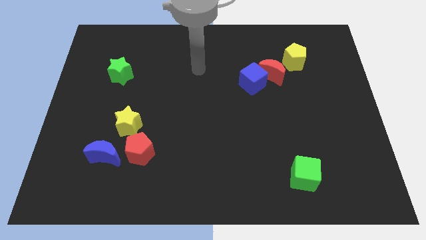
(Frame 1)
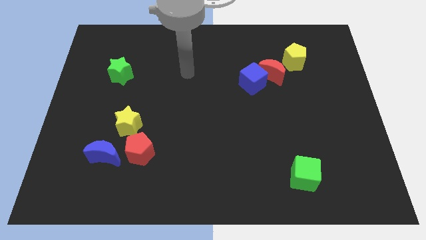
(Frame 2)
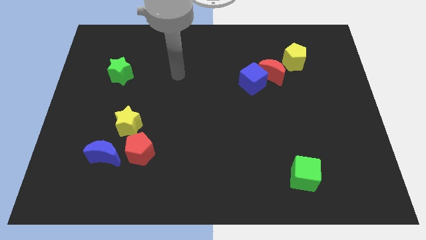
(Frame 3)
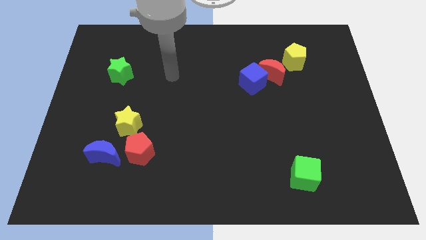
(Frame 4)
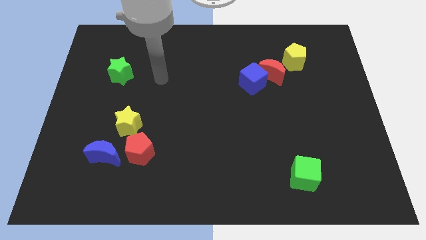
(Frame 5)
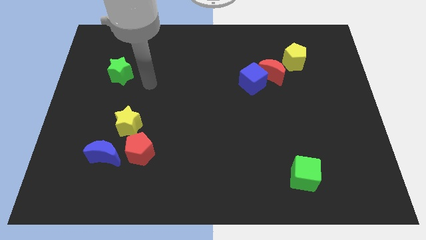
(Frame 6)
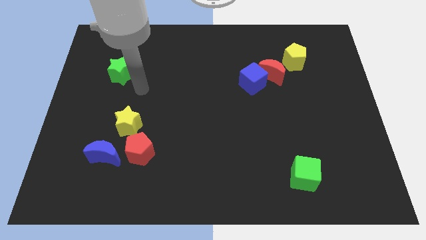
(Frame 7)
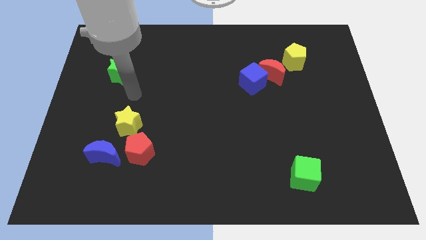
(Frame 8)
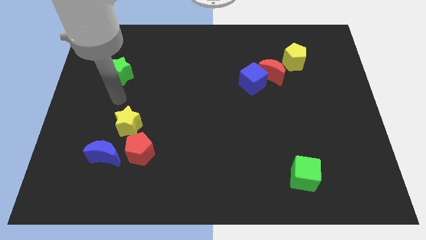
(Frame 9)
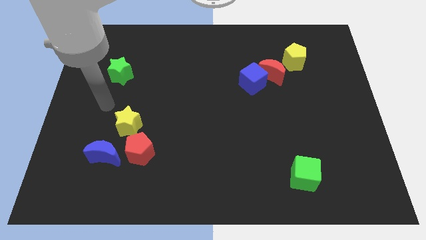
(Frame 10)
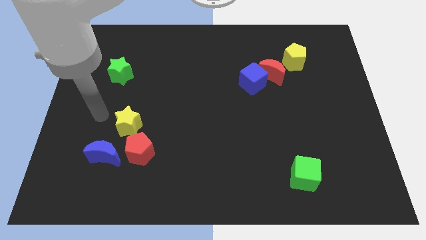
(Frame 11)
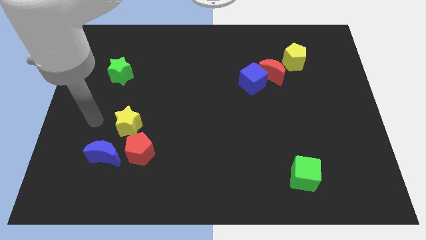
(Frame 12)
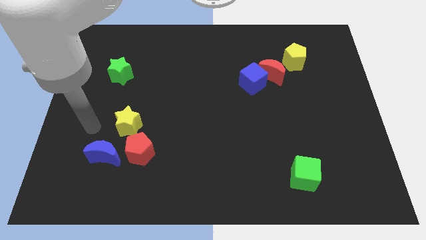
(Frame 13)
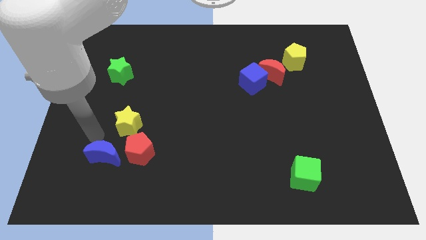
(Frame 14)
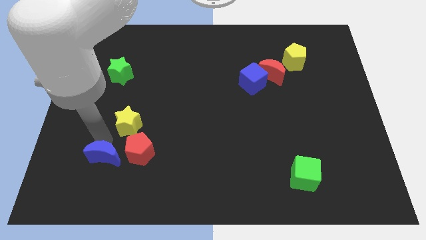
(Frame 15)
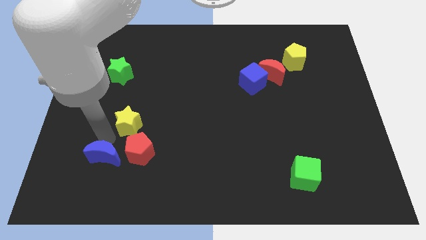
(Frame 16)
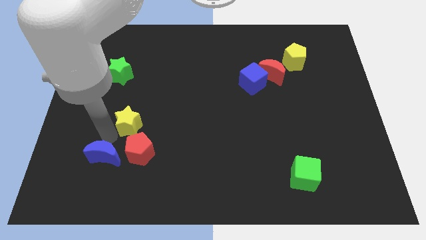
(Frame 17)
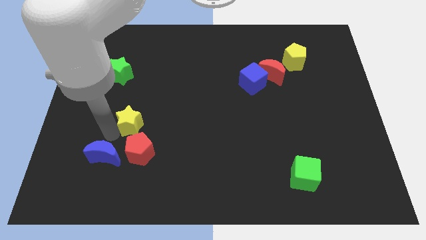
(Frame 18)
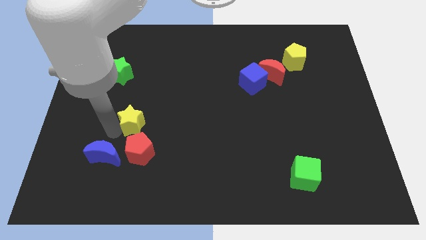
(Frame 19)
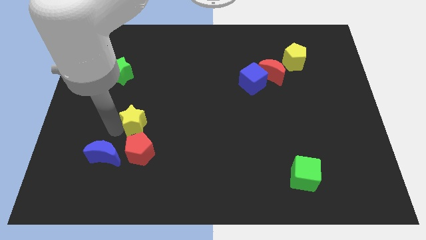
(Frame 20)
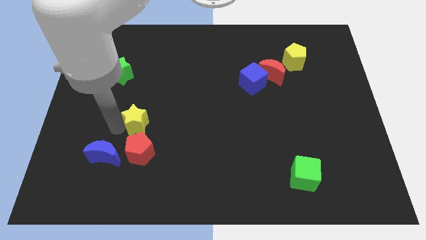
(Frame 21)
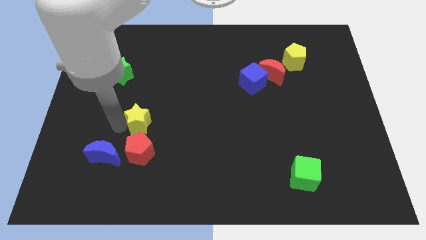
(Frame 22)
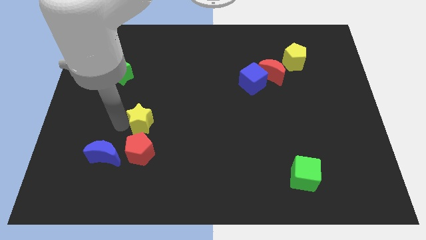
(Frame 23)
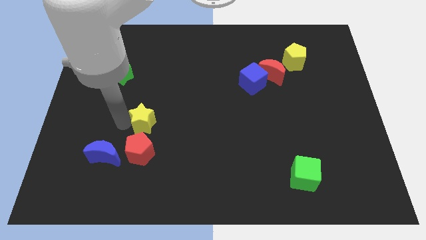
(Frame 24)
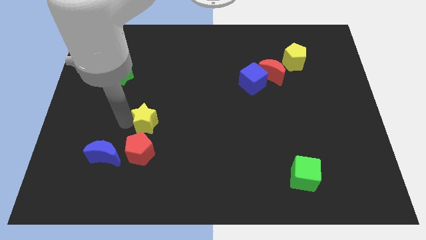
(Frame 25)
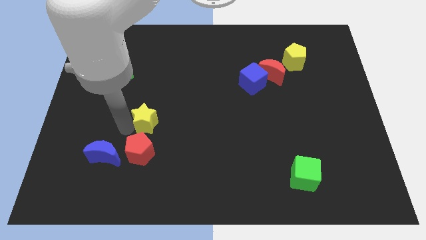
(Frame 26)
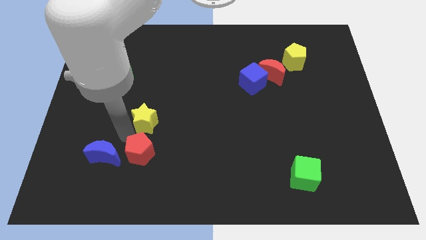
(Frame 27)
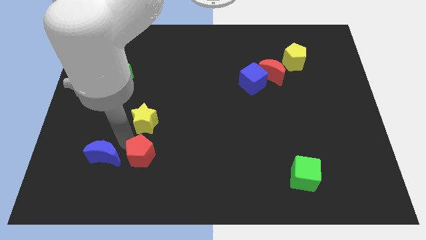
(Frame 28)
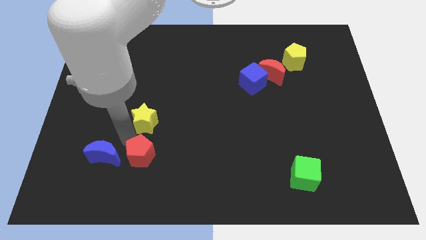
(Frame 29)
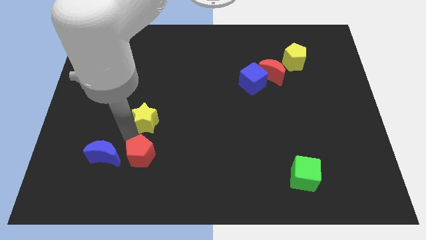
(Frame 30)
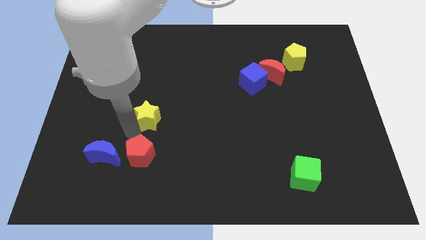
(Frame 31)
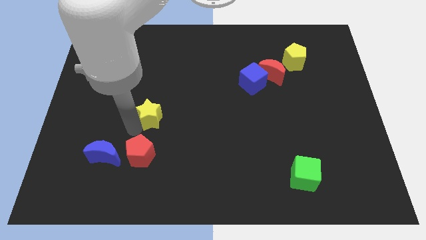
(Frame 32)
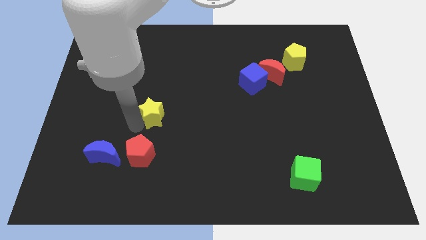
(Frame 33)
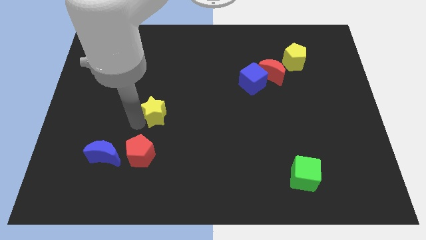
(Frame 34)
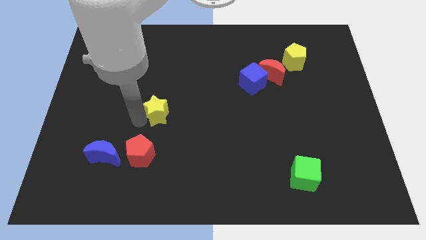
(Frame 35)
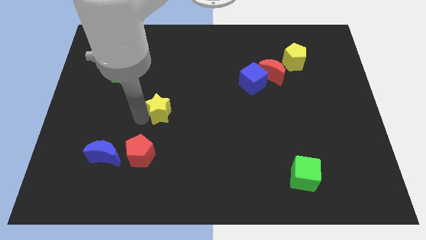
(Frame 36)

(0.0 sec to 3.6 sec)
push the yellow star a little upwards and right diagonally

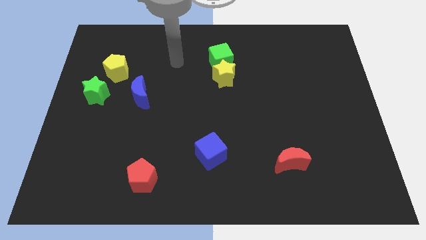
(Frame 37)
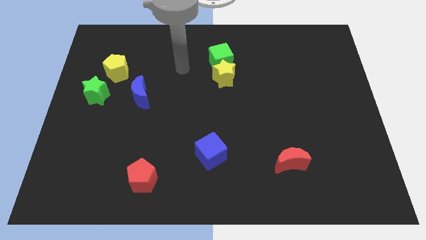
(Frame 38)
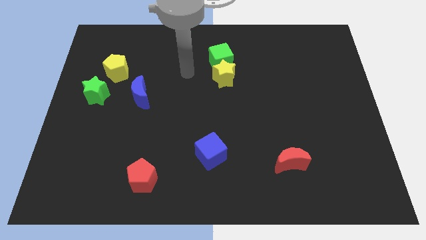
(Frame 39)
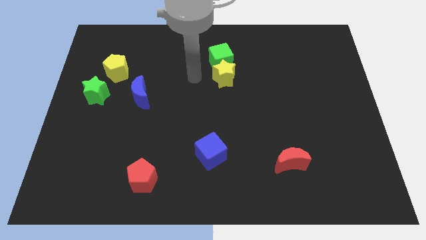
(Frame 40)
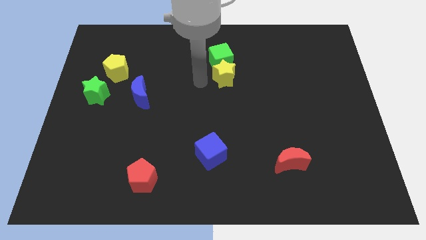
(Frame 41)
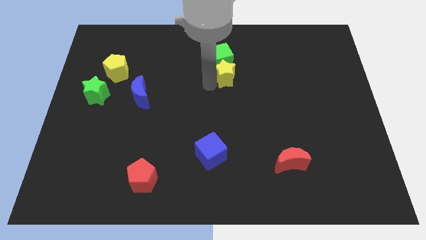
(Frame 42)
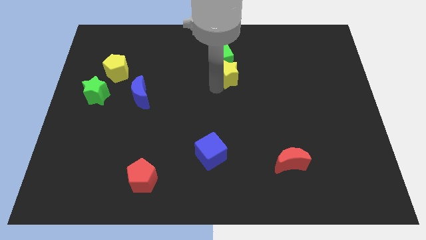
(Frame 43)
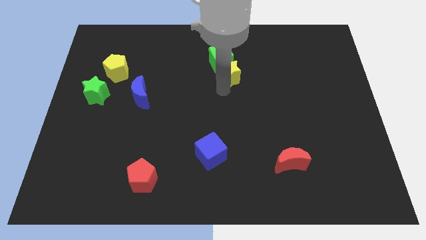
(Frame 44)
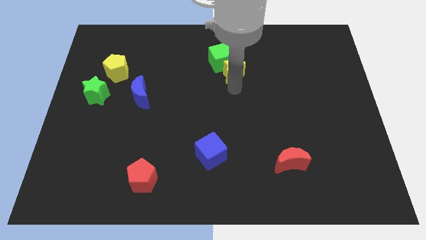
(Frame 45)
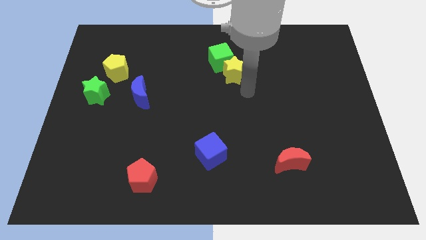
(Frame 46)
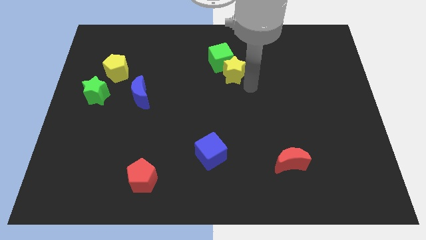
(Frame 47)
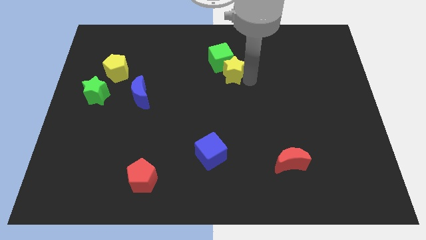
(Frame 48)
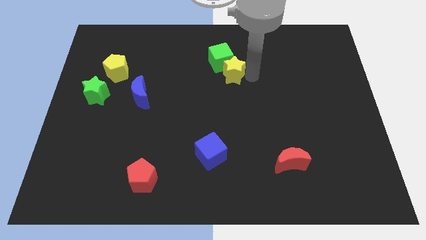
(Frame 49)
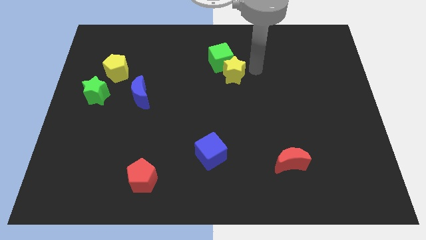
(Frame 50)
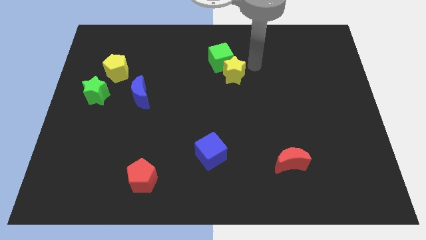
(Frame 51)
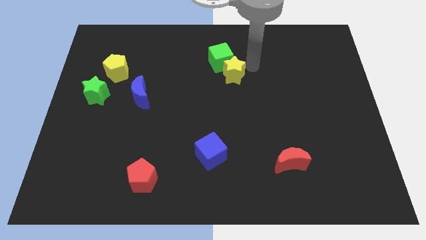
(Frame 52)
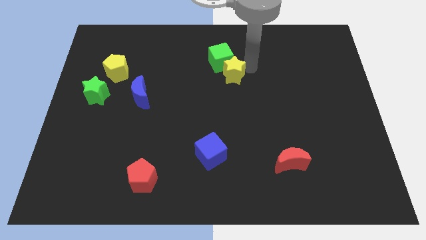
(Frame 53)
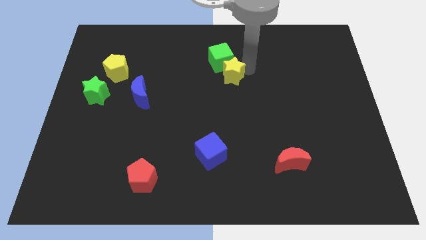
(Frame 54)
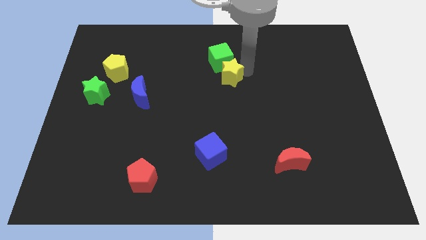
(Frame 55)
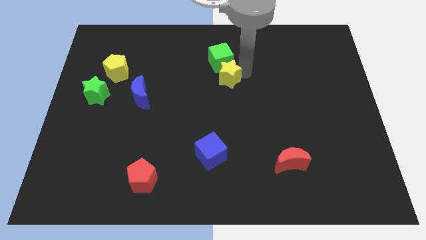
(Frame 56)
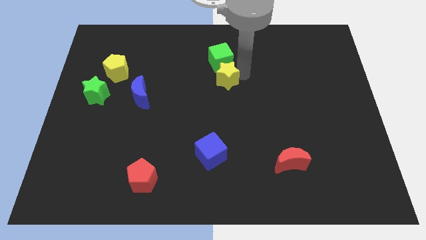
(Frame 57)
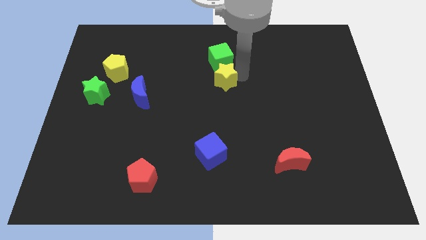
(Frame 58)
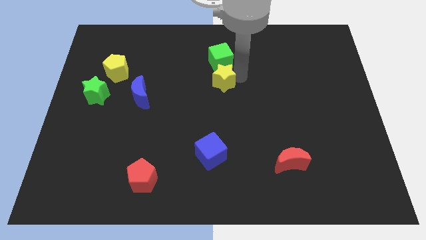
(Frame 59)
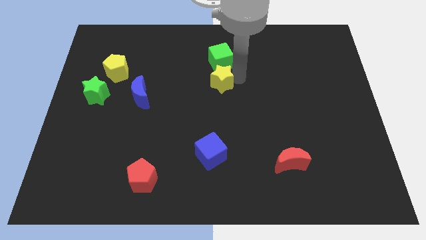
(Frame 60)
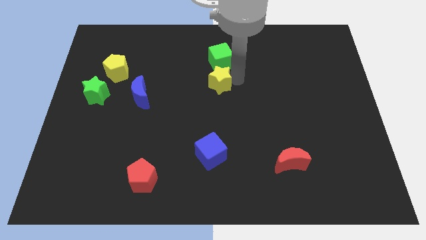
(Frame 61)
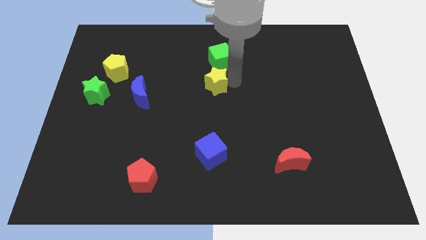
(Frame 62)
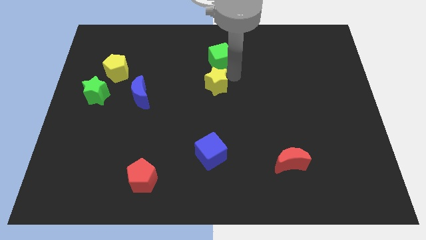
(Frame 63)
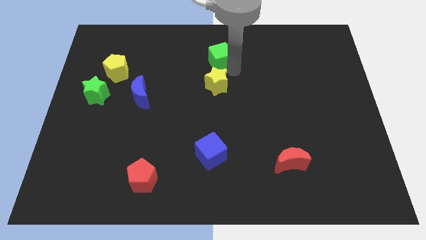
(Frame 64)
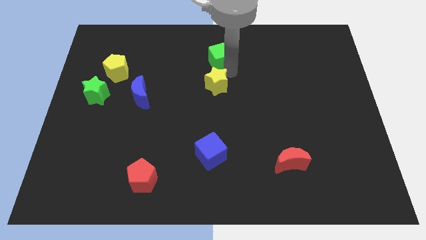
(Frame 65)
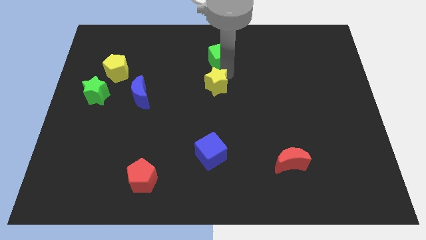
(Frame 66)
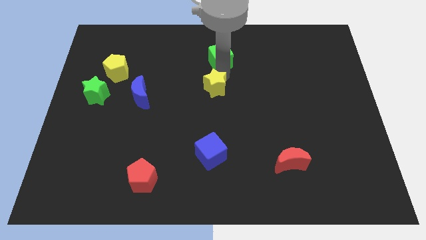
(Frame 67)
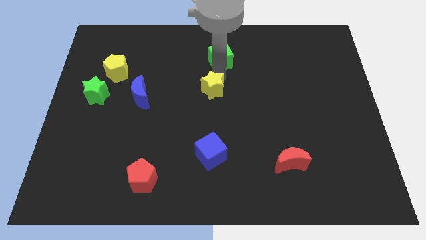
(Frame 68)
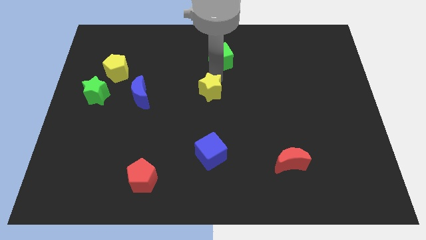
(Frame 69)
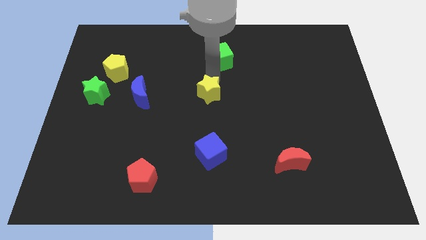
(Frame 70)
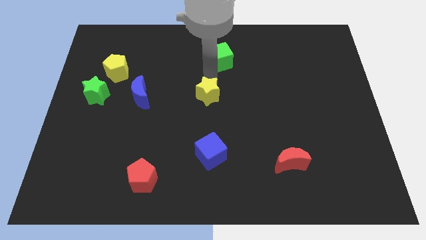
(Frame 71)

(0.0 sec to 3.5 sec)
push the yellow star somewhat downwards and to the left diagonally

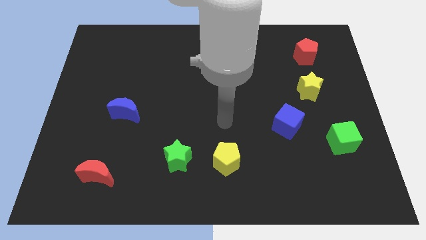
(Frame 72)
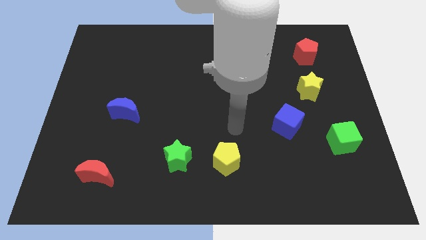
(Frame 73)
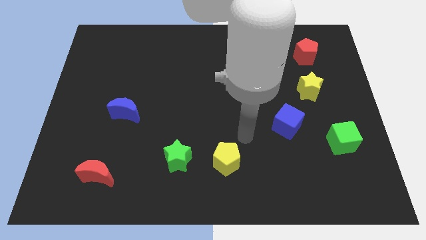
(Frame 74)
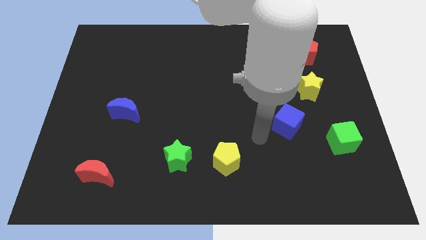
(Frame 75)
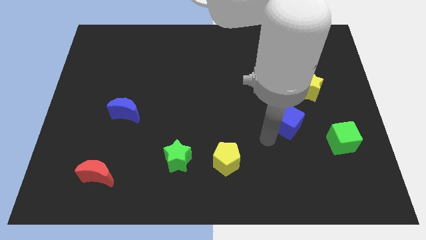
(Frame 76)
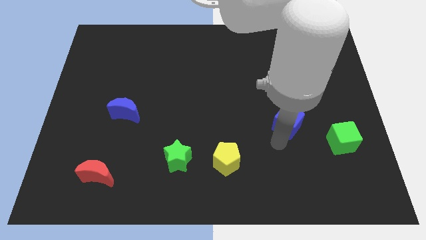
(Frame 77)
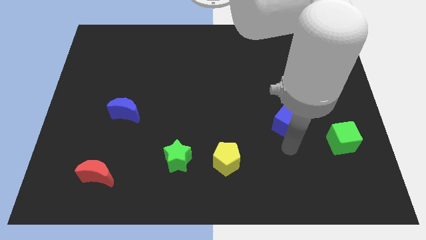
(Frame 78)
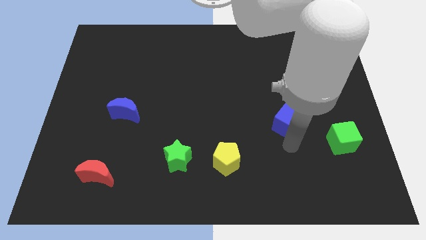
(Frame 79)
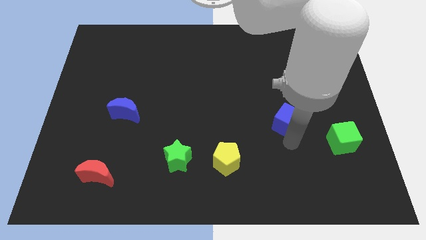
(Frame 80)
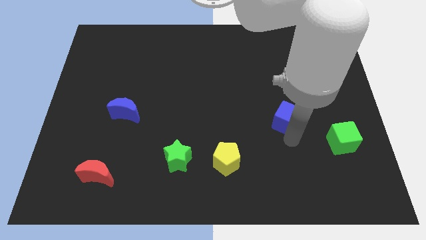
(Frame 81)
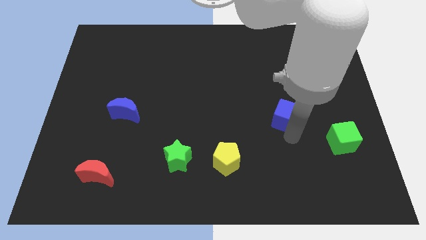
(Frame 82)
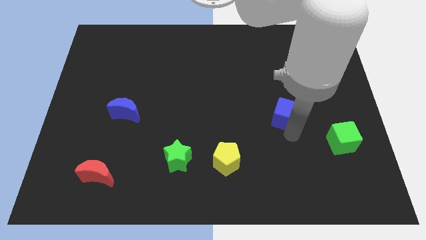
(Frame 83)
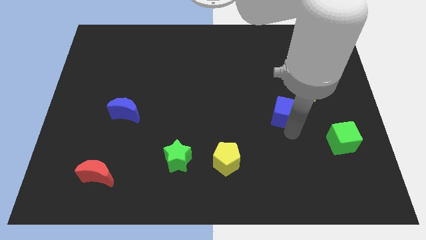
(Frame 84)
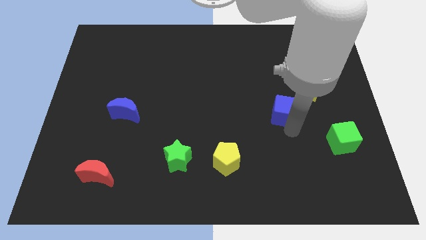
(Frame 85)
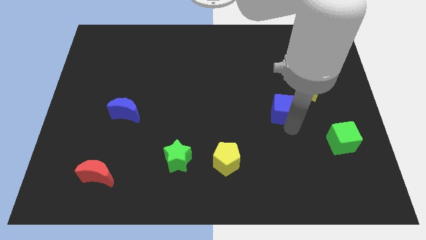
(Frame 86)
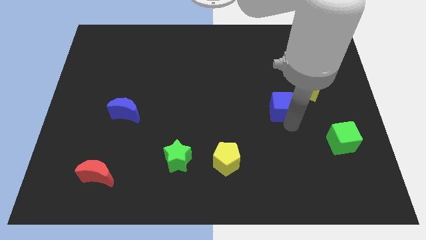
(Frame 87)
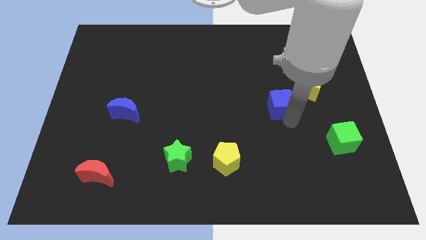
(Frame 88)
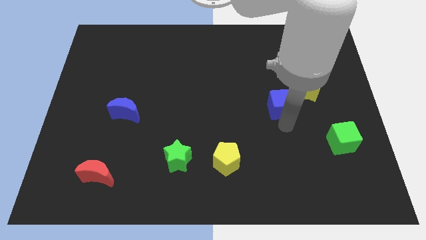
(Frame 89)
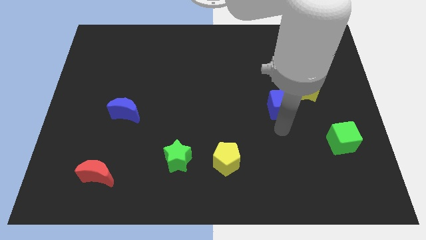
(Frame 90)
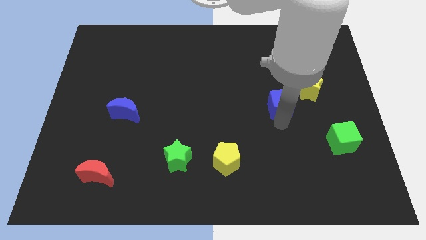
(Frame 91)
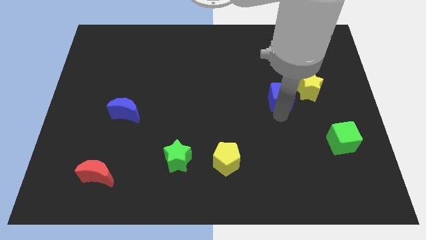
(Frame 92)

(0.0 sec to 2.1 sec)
move the blue cube upwards a bit
